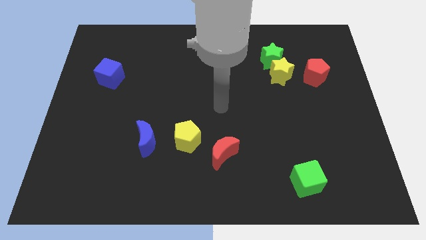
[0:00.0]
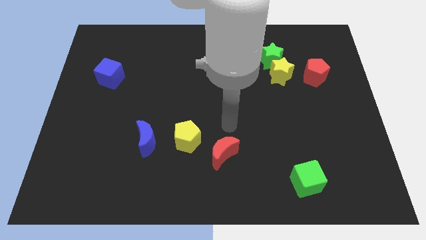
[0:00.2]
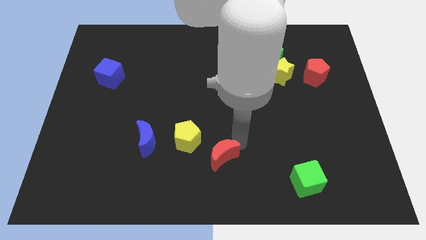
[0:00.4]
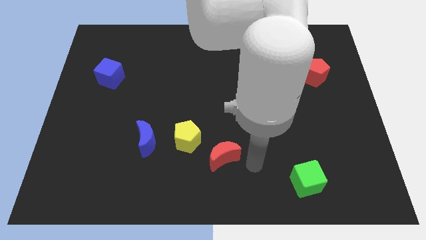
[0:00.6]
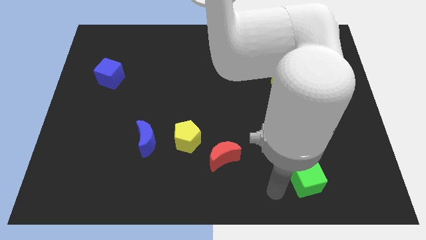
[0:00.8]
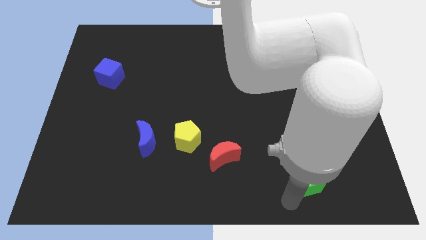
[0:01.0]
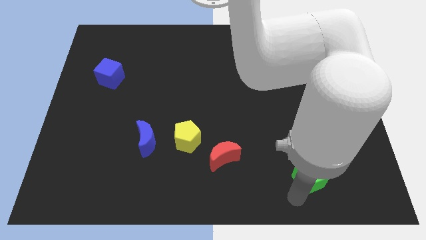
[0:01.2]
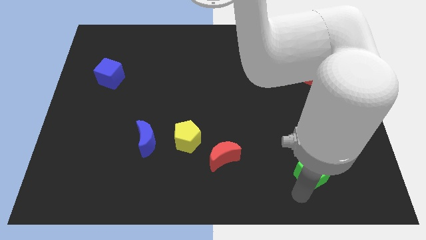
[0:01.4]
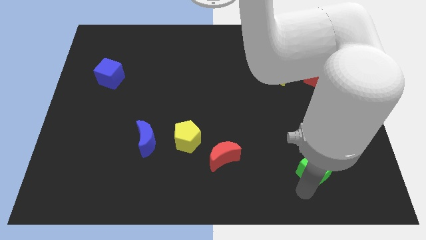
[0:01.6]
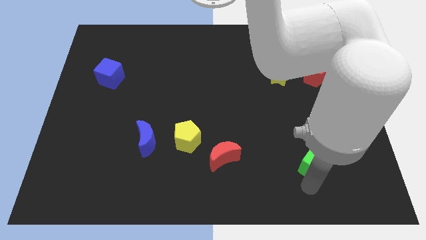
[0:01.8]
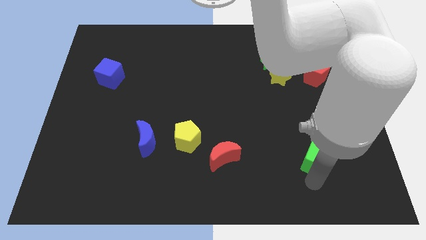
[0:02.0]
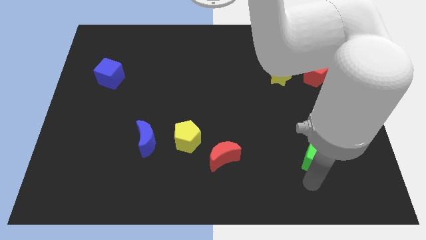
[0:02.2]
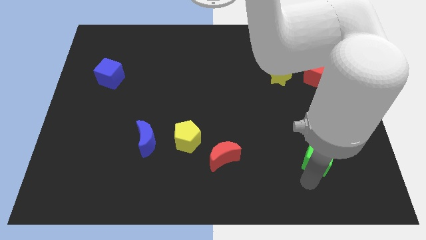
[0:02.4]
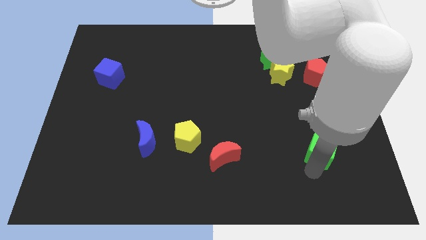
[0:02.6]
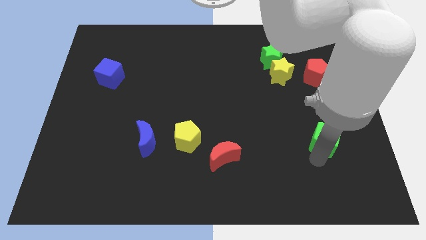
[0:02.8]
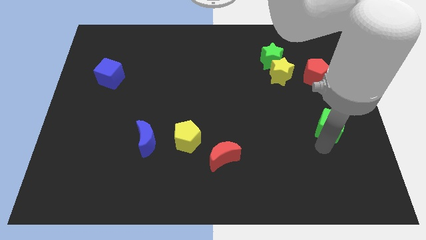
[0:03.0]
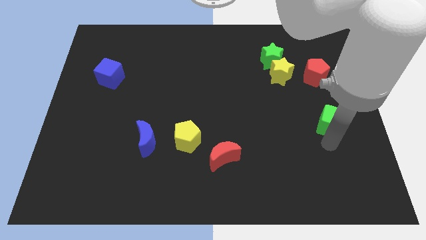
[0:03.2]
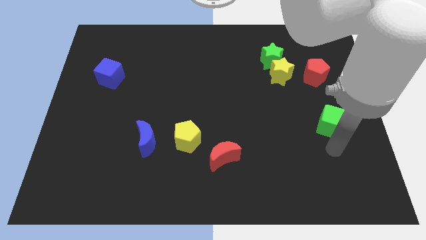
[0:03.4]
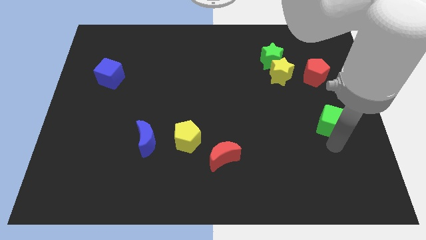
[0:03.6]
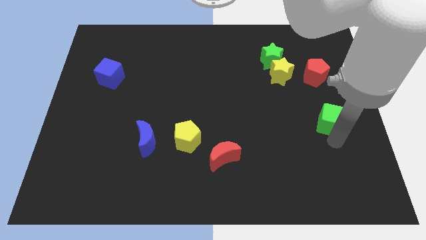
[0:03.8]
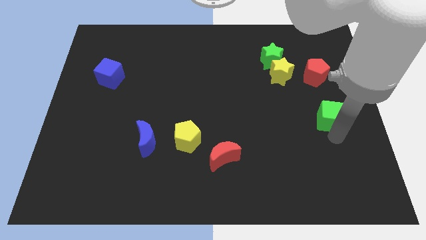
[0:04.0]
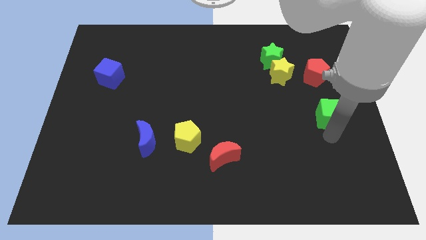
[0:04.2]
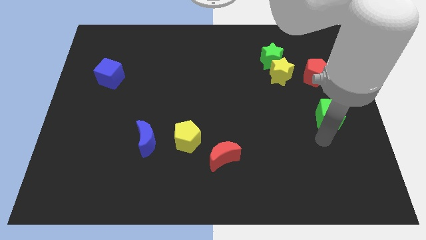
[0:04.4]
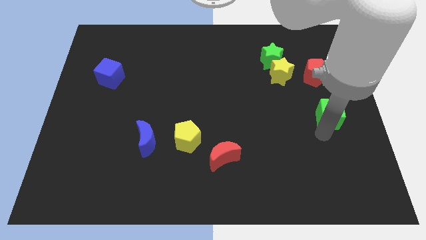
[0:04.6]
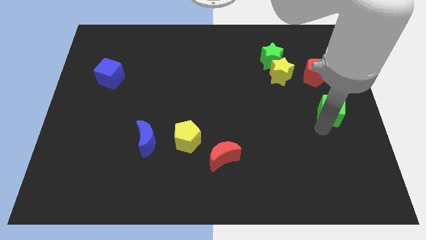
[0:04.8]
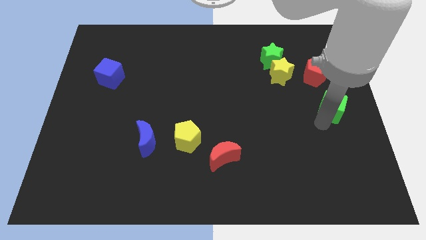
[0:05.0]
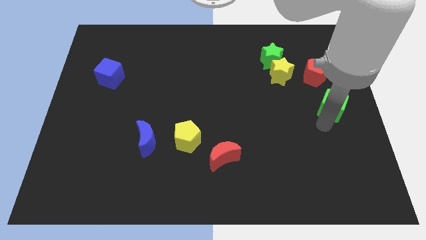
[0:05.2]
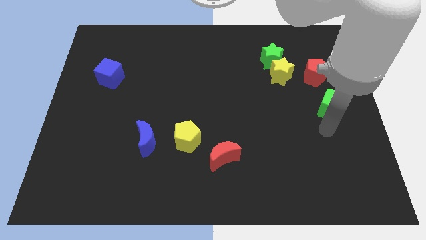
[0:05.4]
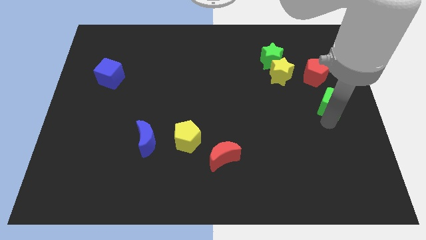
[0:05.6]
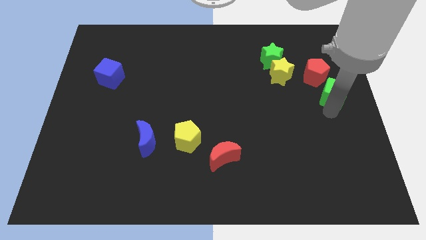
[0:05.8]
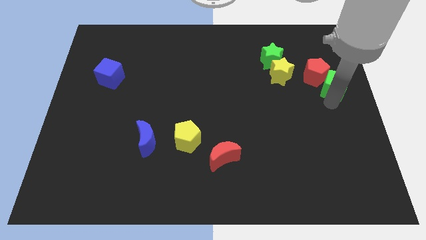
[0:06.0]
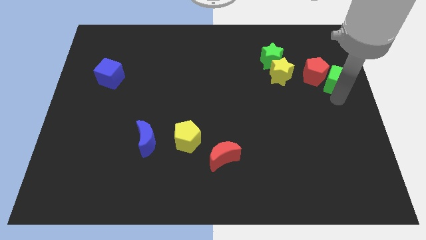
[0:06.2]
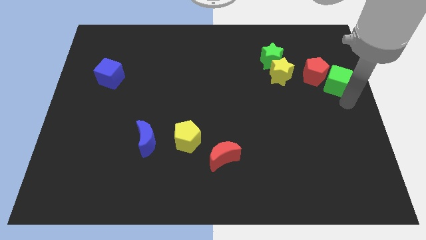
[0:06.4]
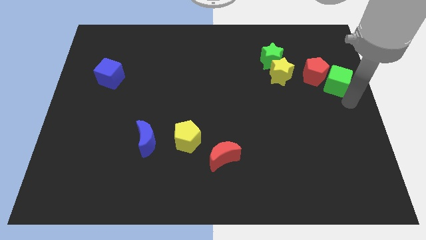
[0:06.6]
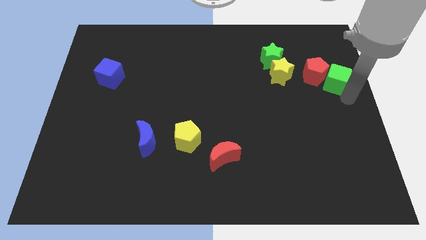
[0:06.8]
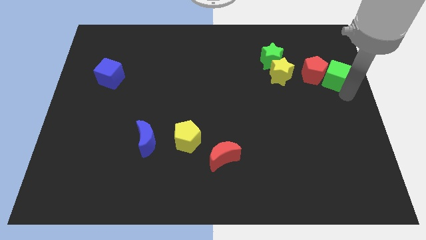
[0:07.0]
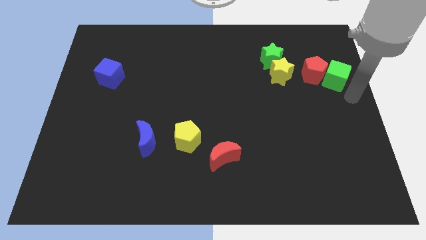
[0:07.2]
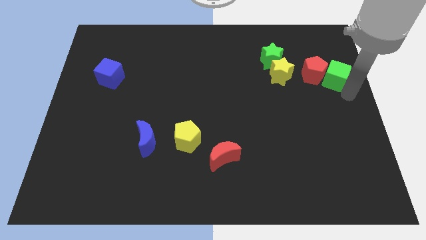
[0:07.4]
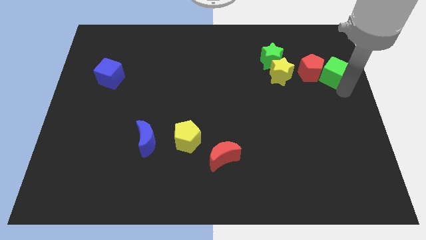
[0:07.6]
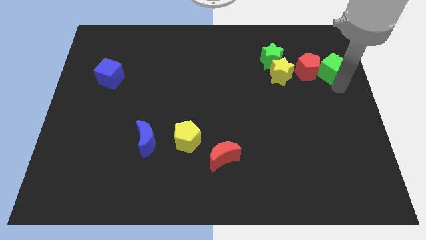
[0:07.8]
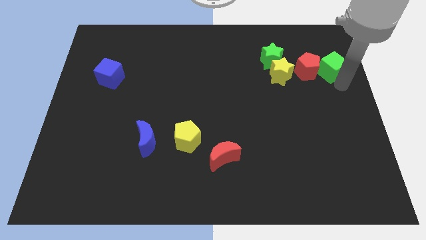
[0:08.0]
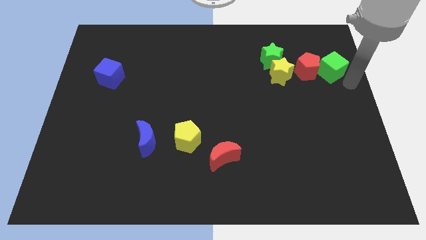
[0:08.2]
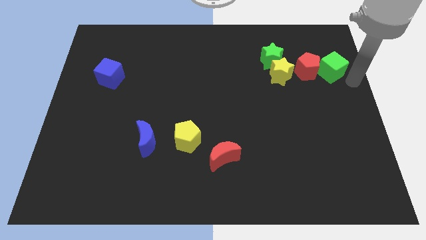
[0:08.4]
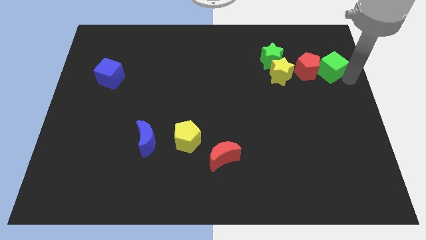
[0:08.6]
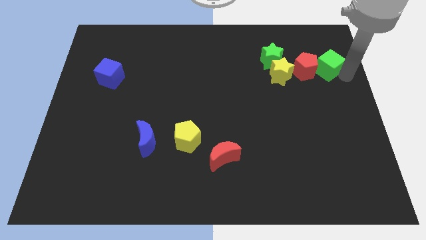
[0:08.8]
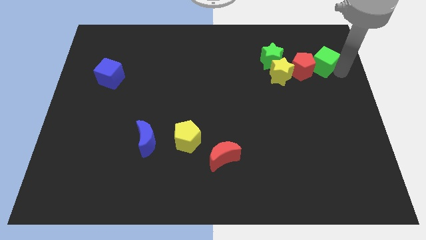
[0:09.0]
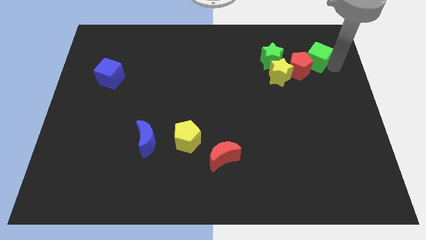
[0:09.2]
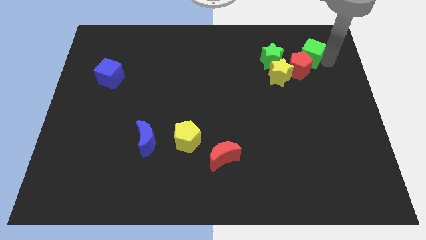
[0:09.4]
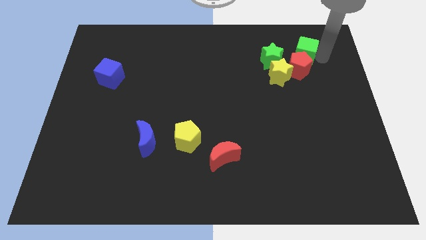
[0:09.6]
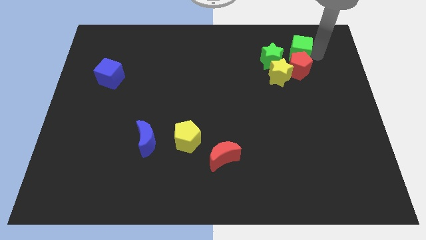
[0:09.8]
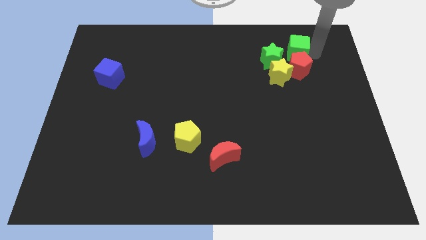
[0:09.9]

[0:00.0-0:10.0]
push the green cube to the top left of the red pentagon

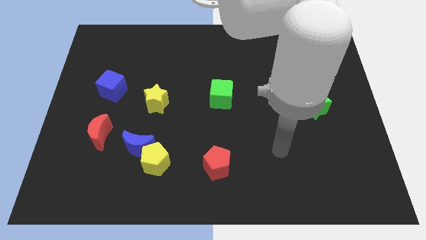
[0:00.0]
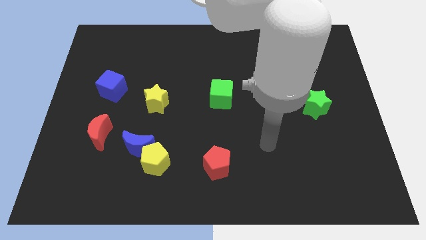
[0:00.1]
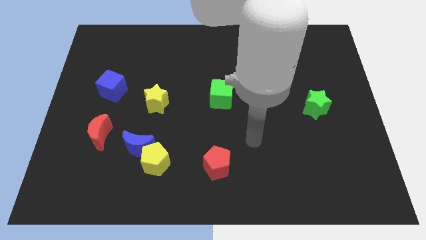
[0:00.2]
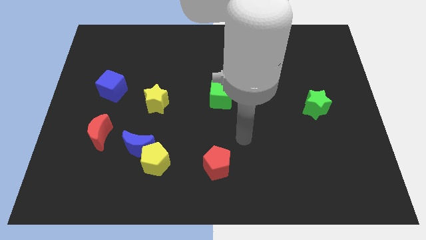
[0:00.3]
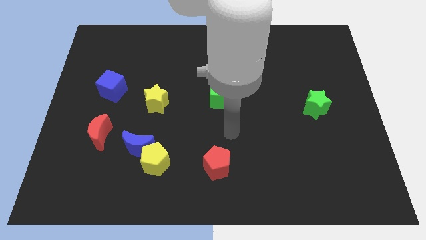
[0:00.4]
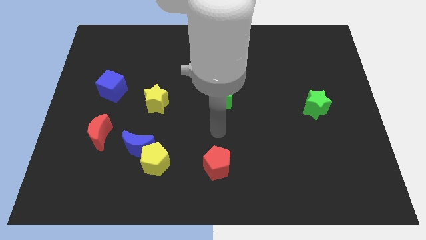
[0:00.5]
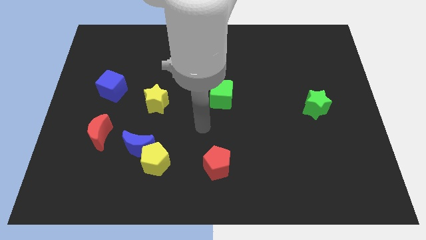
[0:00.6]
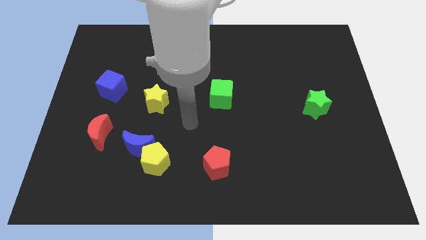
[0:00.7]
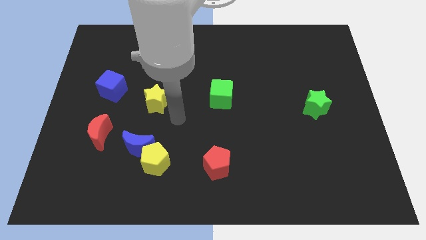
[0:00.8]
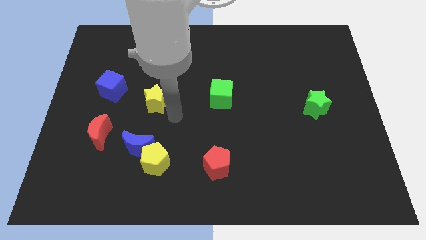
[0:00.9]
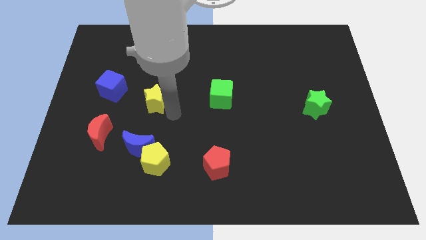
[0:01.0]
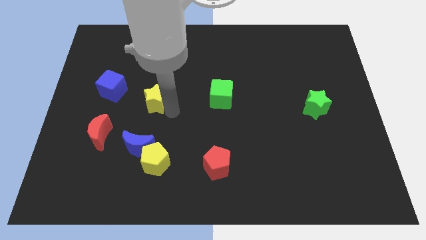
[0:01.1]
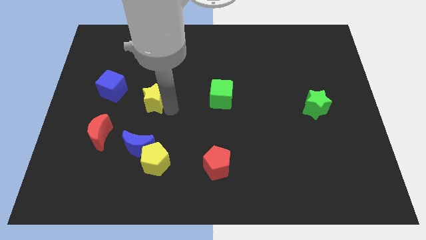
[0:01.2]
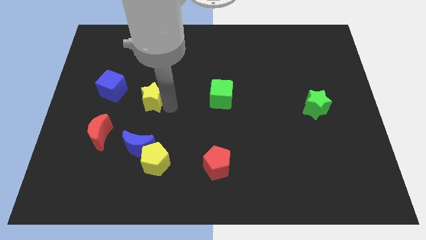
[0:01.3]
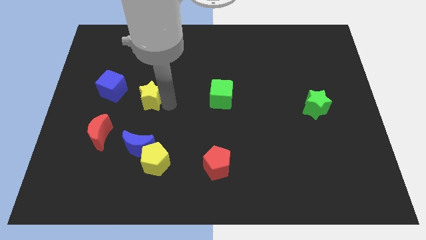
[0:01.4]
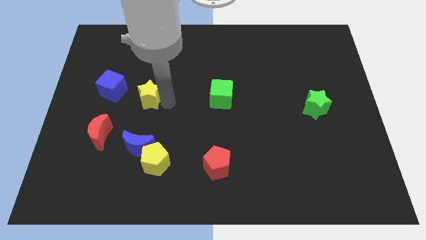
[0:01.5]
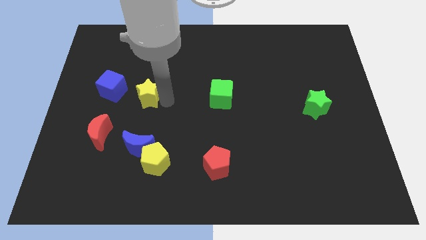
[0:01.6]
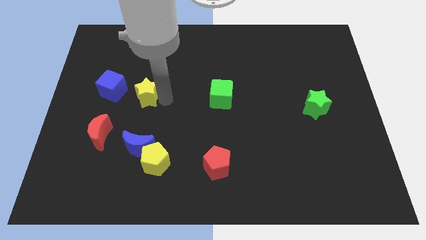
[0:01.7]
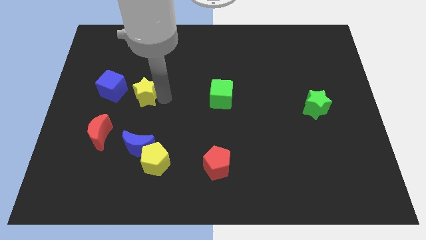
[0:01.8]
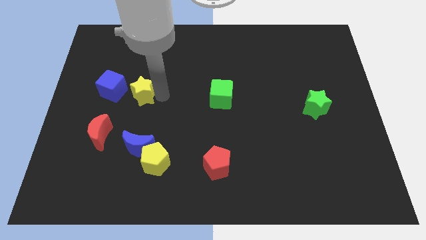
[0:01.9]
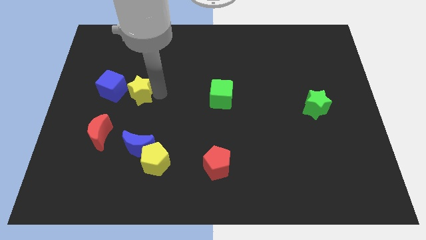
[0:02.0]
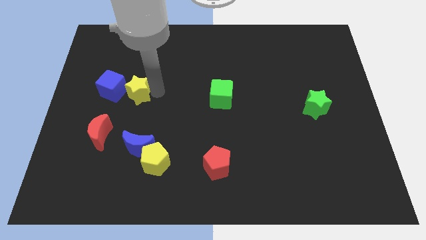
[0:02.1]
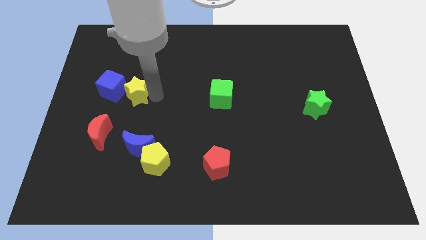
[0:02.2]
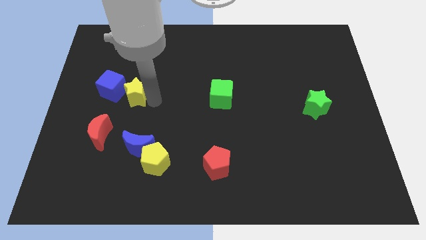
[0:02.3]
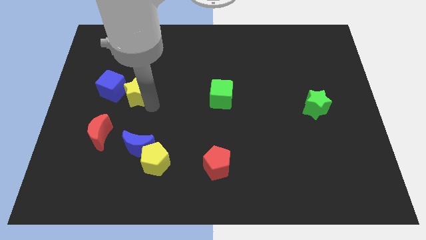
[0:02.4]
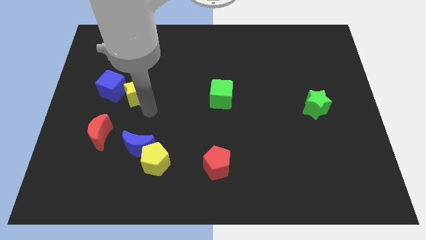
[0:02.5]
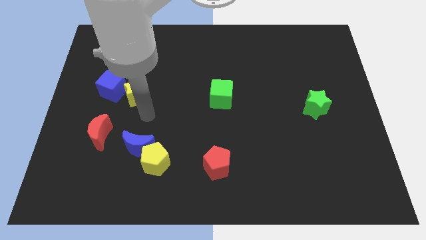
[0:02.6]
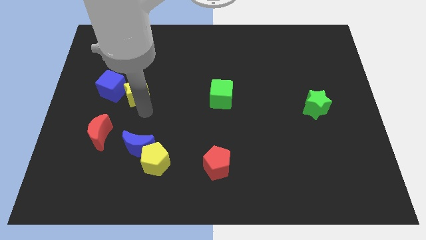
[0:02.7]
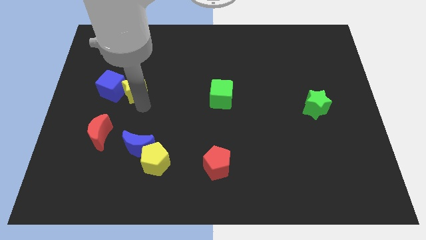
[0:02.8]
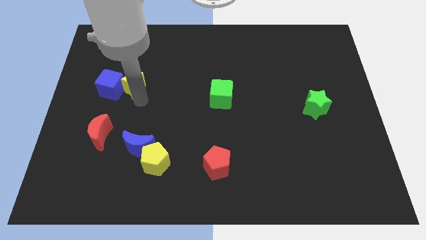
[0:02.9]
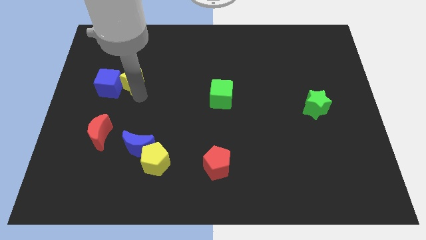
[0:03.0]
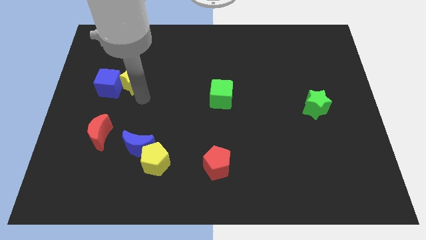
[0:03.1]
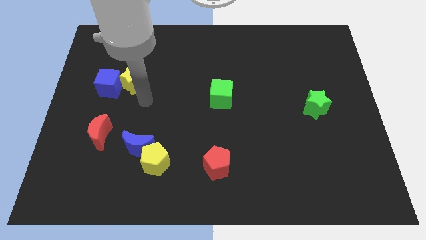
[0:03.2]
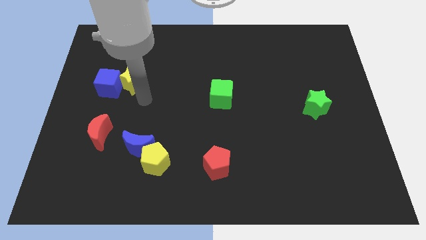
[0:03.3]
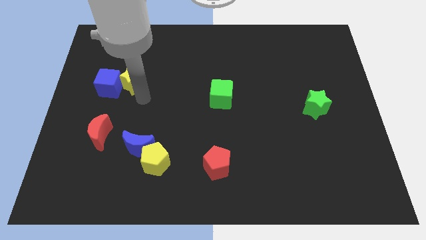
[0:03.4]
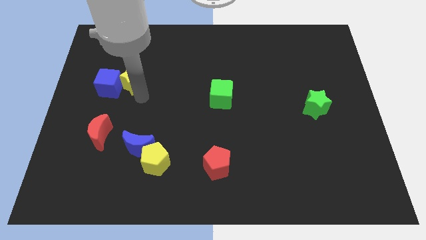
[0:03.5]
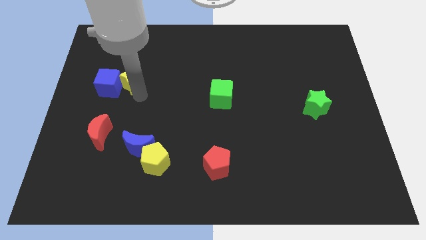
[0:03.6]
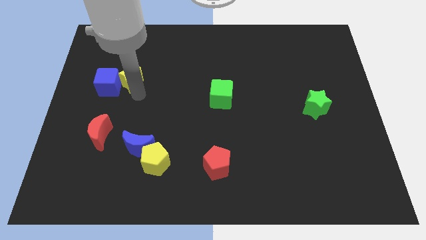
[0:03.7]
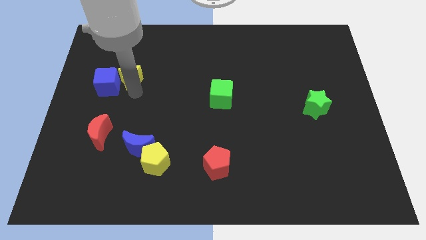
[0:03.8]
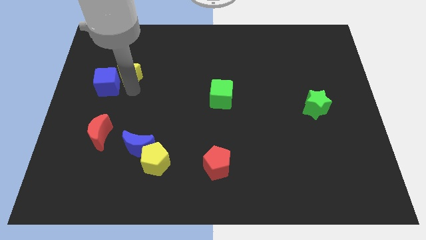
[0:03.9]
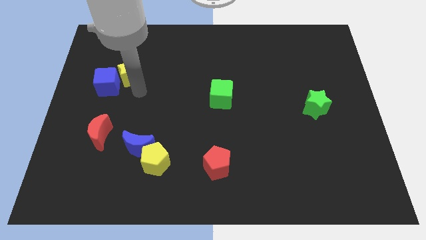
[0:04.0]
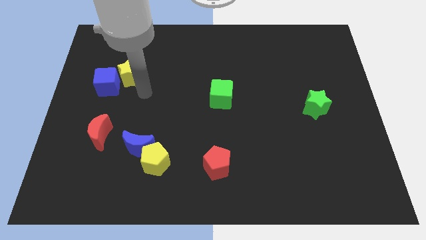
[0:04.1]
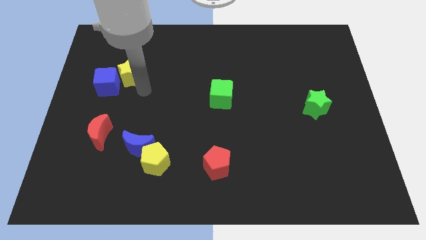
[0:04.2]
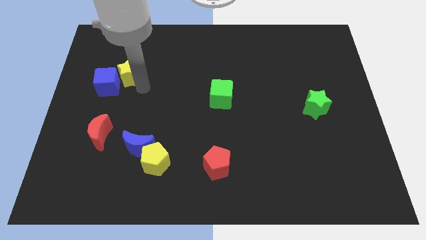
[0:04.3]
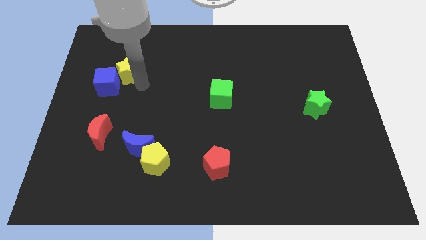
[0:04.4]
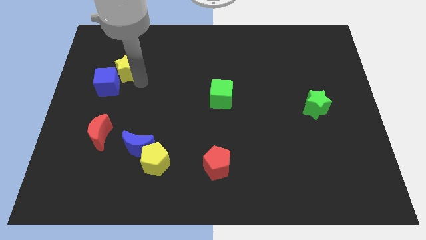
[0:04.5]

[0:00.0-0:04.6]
move the yellow star to the top side of the blue cube
